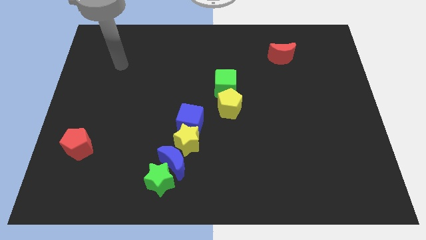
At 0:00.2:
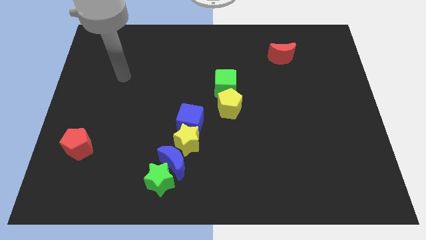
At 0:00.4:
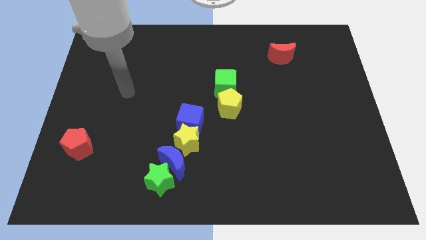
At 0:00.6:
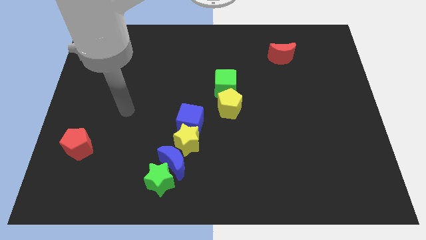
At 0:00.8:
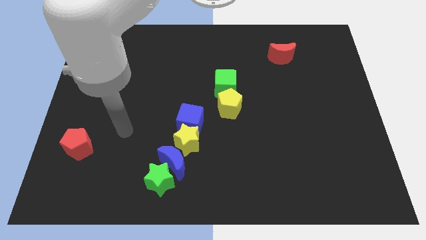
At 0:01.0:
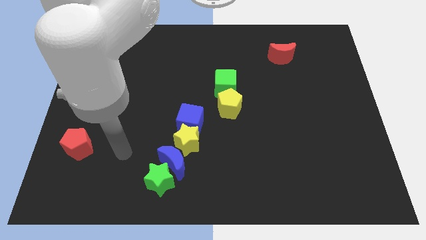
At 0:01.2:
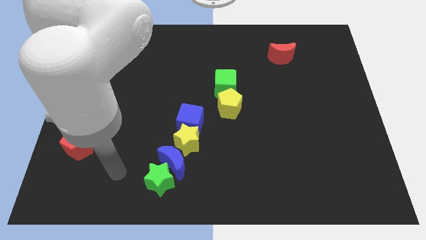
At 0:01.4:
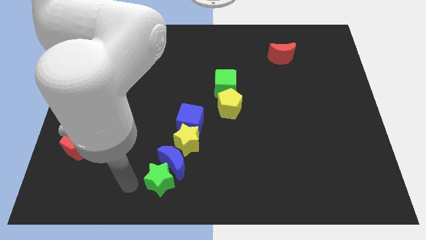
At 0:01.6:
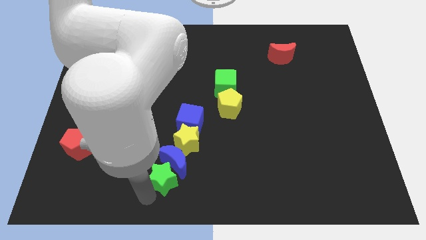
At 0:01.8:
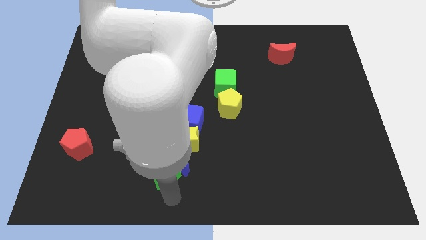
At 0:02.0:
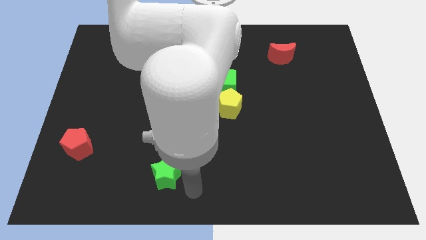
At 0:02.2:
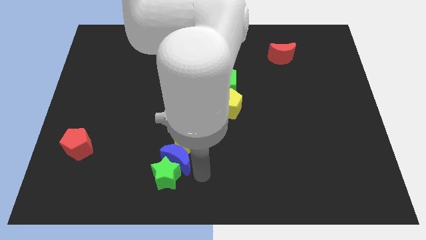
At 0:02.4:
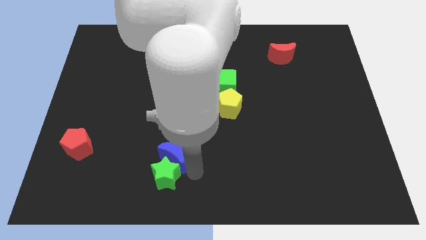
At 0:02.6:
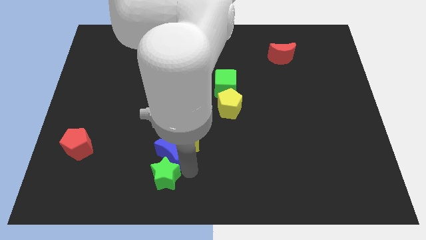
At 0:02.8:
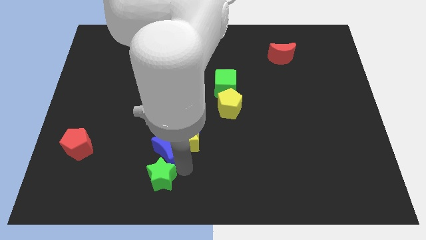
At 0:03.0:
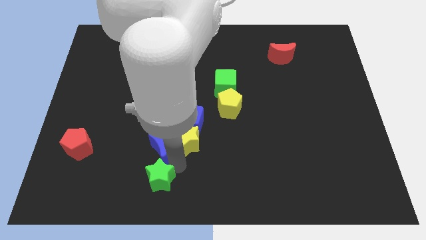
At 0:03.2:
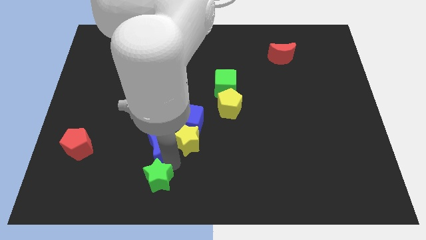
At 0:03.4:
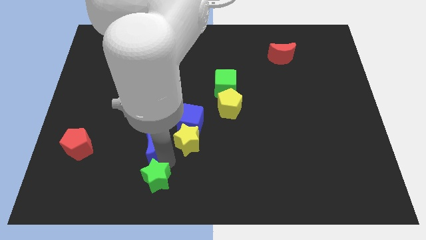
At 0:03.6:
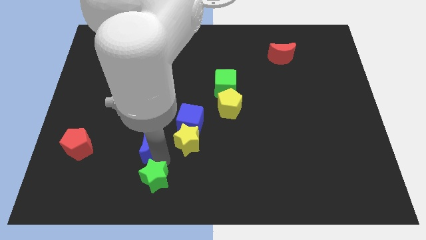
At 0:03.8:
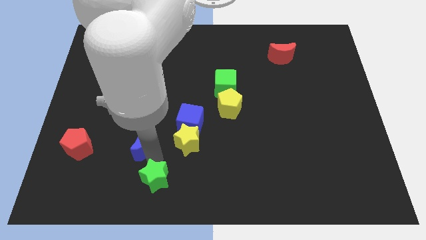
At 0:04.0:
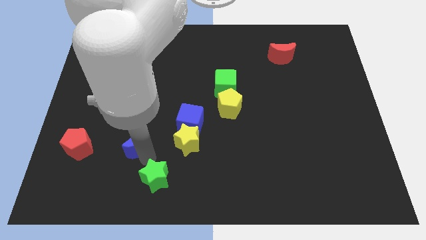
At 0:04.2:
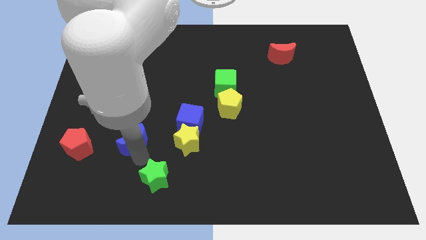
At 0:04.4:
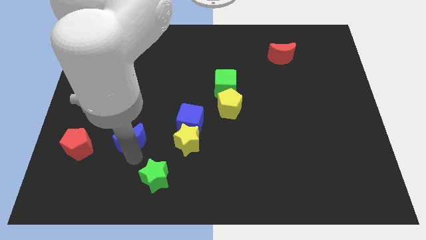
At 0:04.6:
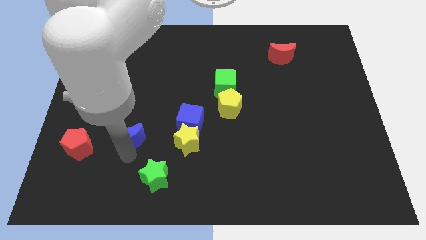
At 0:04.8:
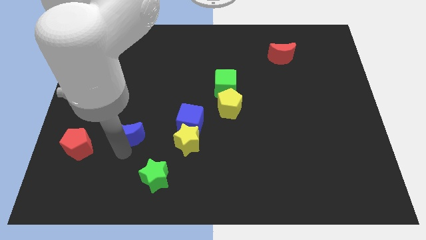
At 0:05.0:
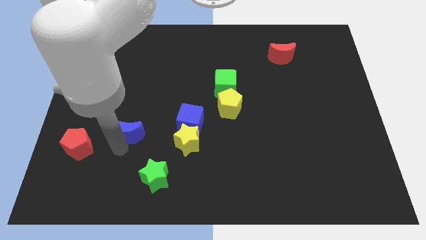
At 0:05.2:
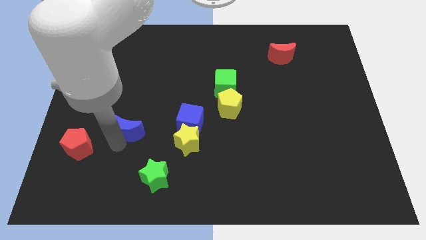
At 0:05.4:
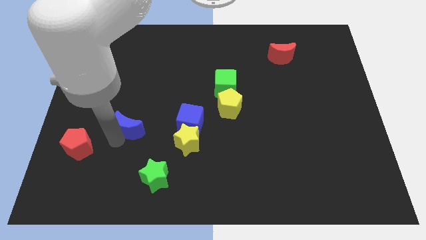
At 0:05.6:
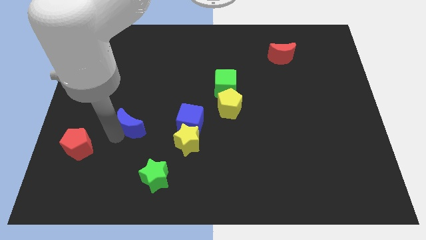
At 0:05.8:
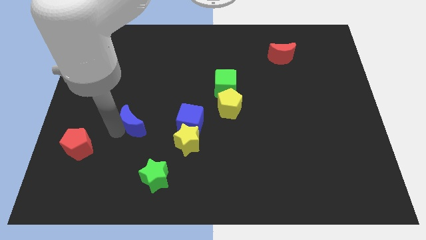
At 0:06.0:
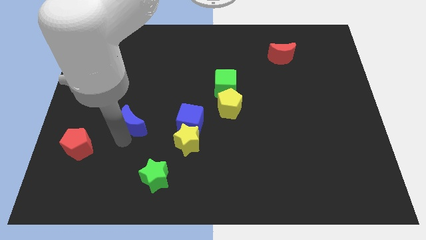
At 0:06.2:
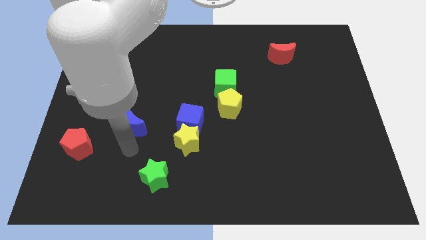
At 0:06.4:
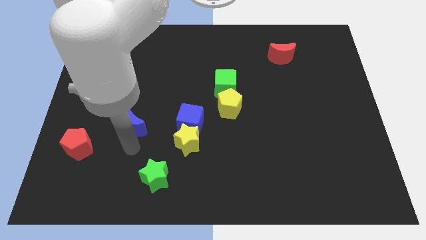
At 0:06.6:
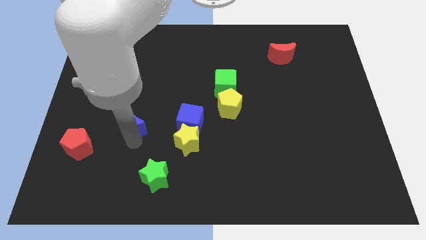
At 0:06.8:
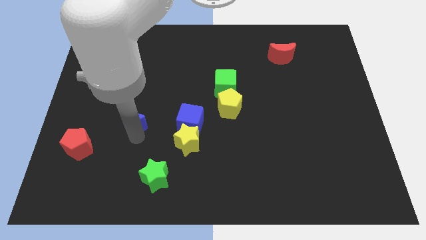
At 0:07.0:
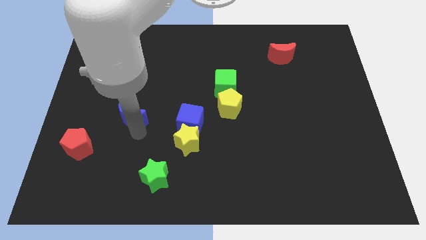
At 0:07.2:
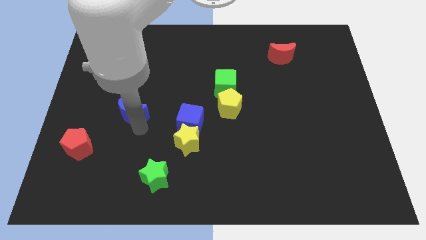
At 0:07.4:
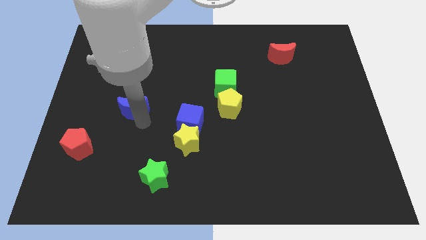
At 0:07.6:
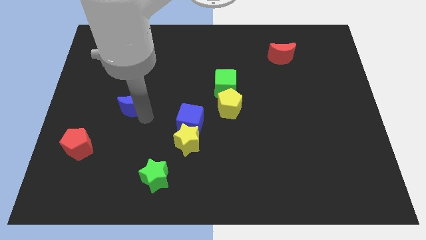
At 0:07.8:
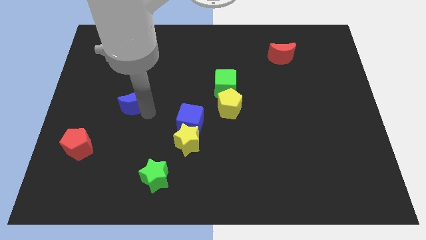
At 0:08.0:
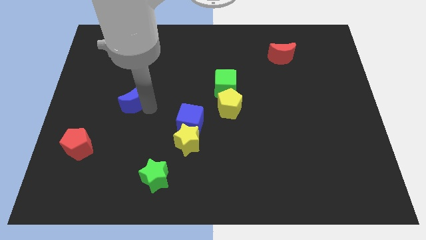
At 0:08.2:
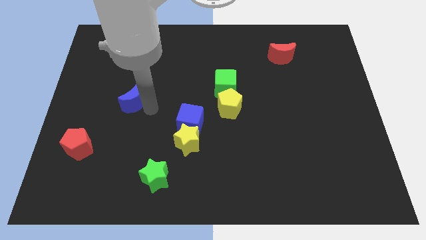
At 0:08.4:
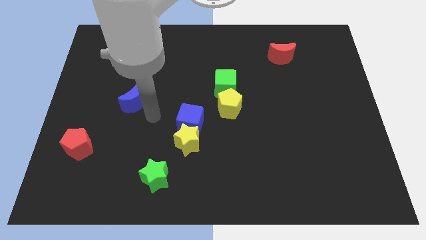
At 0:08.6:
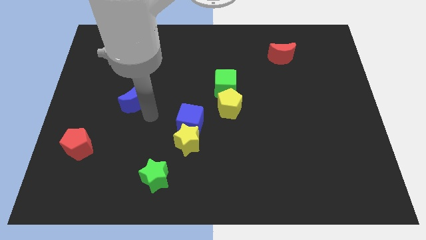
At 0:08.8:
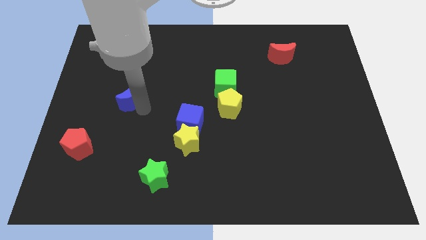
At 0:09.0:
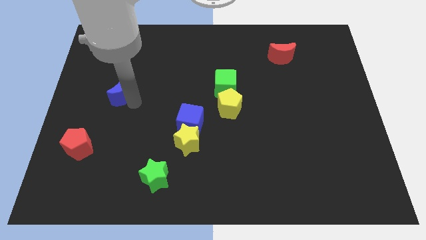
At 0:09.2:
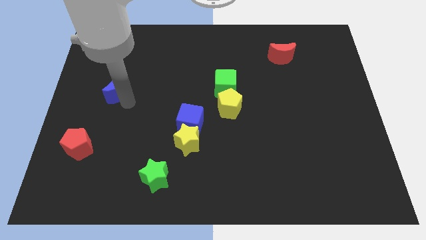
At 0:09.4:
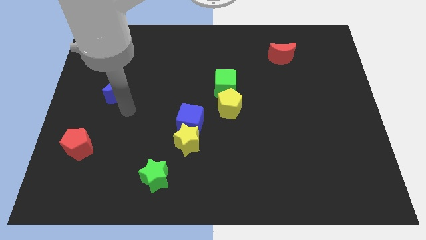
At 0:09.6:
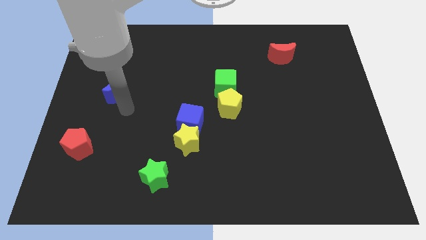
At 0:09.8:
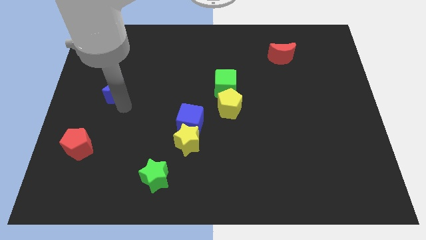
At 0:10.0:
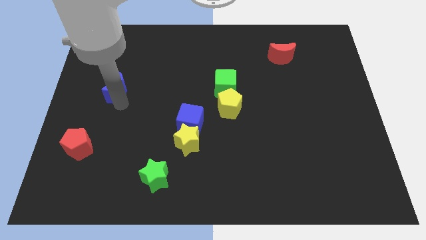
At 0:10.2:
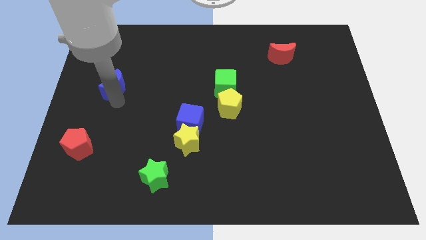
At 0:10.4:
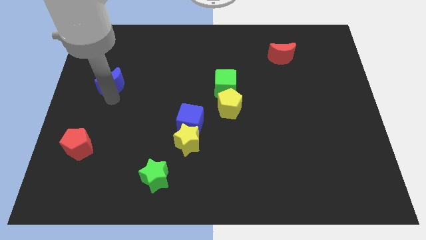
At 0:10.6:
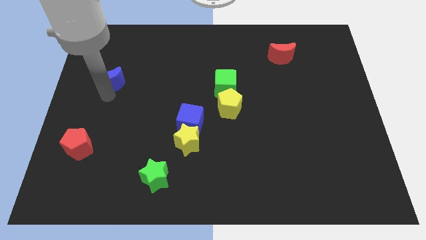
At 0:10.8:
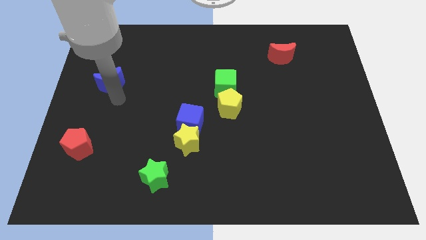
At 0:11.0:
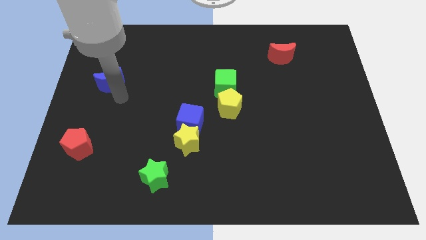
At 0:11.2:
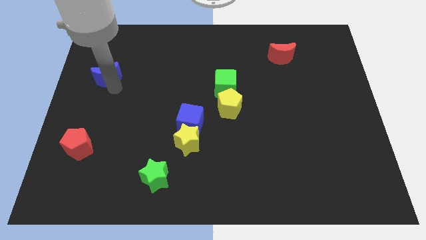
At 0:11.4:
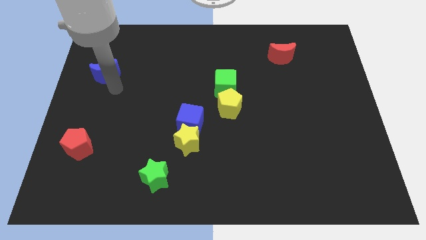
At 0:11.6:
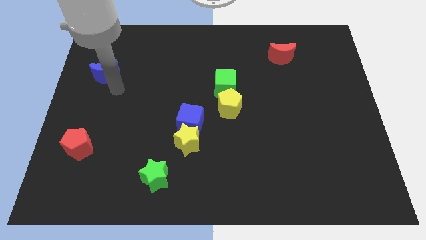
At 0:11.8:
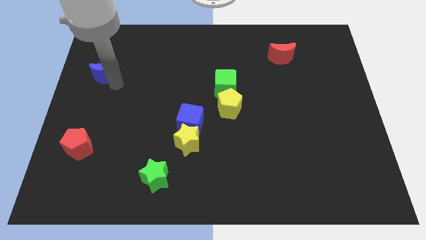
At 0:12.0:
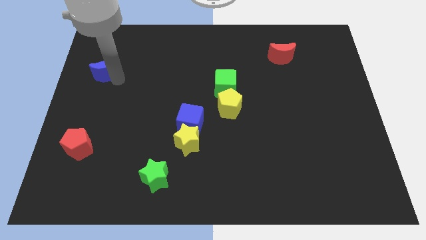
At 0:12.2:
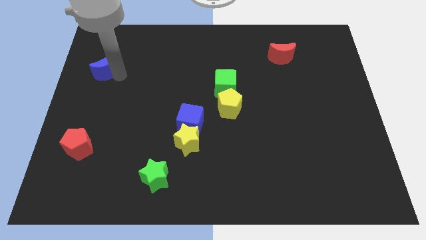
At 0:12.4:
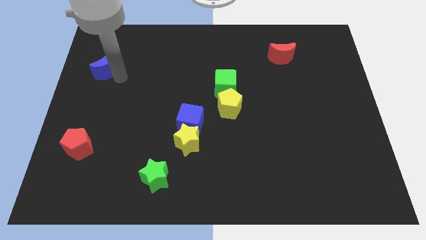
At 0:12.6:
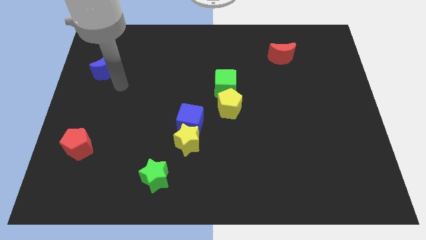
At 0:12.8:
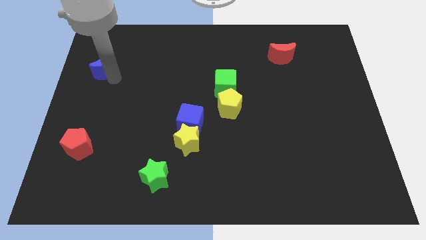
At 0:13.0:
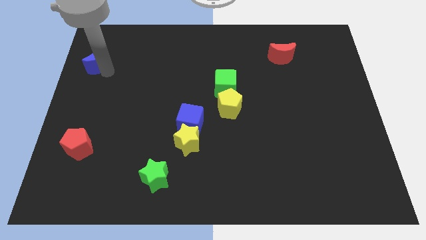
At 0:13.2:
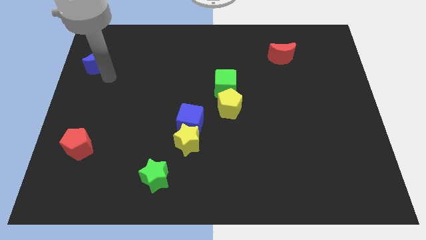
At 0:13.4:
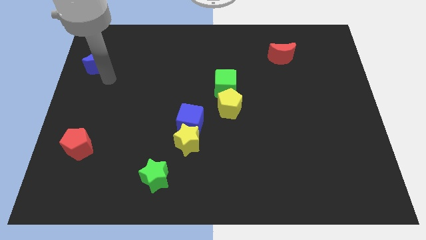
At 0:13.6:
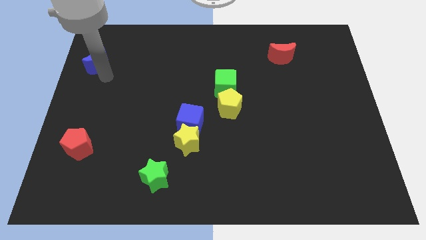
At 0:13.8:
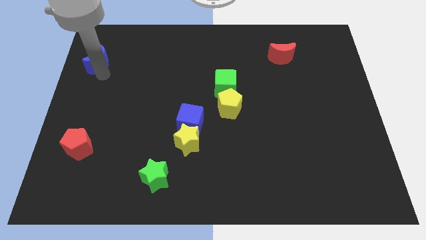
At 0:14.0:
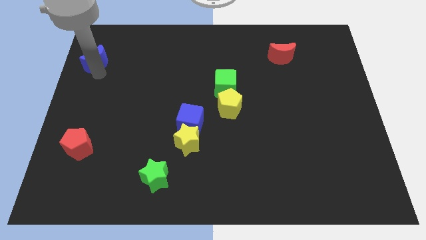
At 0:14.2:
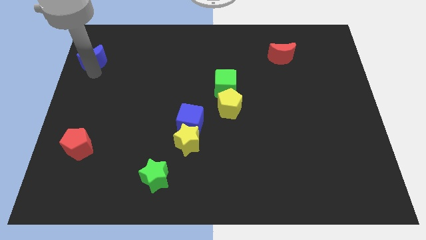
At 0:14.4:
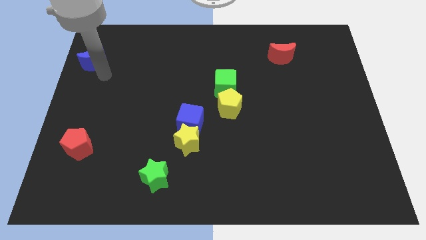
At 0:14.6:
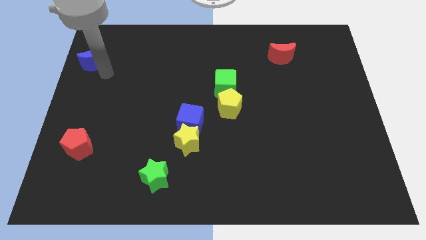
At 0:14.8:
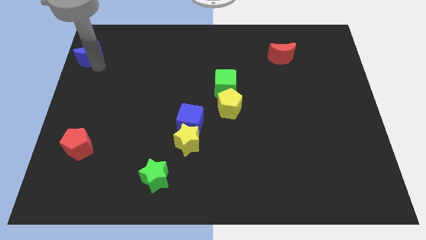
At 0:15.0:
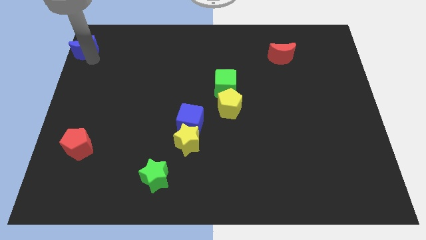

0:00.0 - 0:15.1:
put the blue moon to the top left corner
